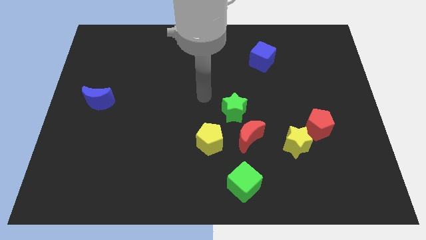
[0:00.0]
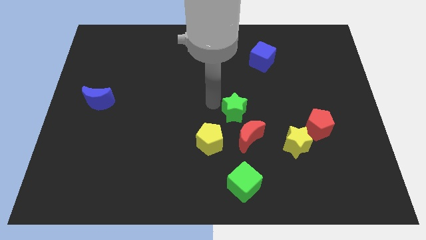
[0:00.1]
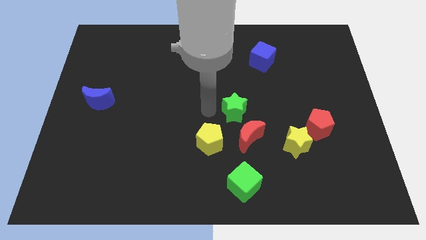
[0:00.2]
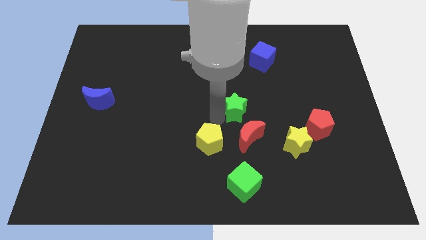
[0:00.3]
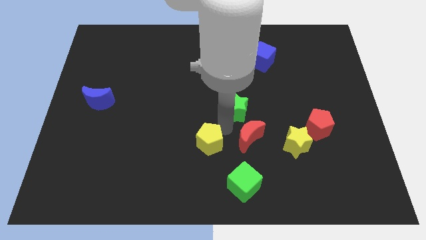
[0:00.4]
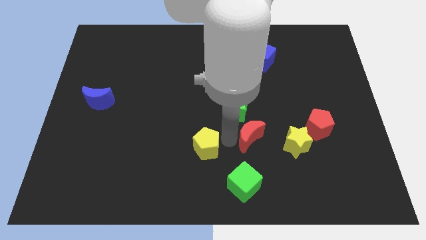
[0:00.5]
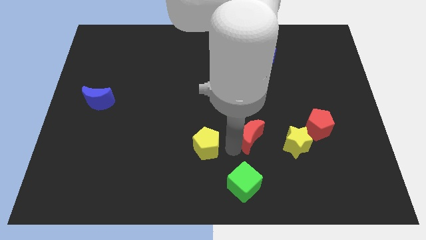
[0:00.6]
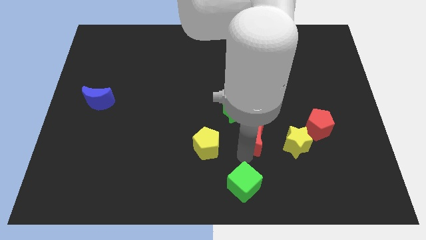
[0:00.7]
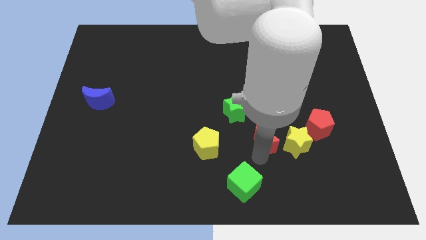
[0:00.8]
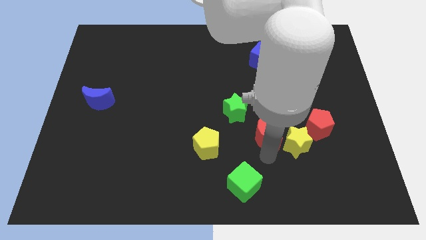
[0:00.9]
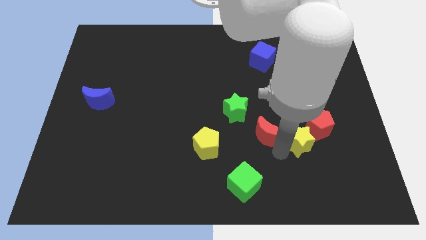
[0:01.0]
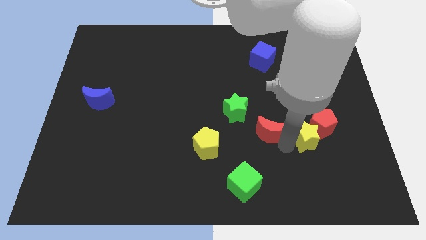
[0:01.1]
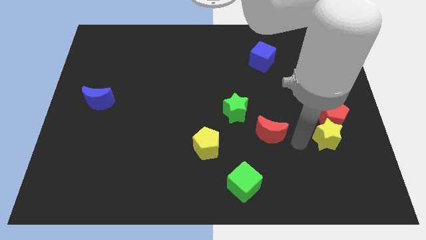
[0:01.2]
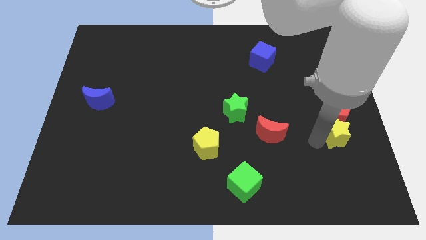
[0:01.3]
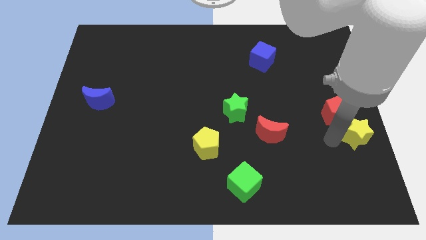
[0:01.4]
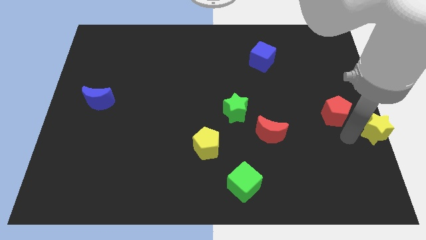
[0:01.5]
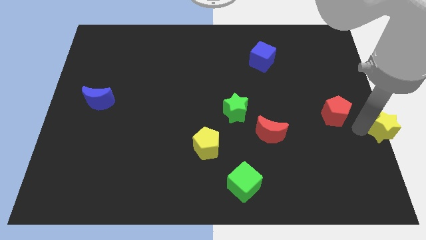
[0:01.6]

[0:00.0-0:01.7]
pull the red pentagon apart from the yellow star

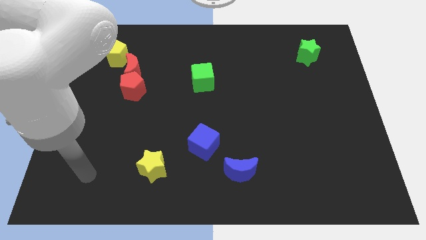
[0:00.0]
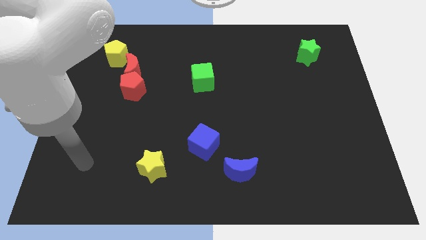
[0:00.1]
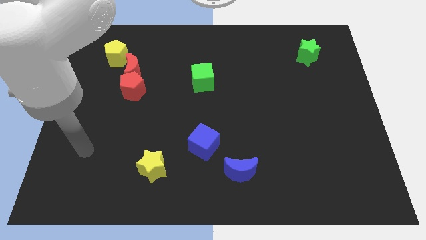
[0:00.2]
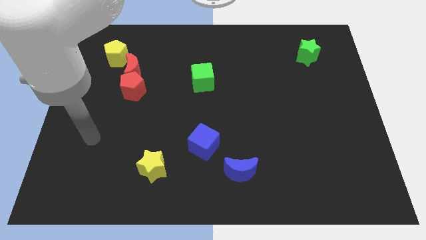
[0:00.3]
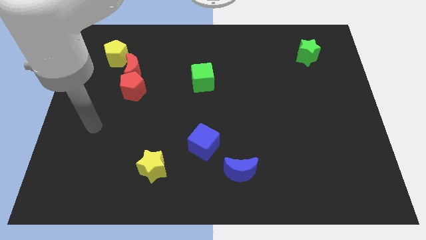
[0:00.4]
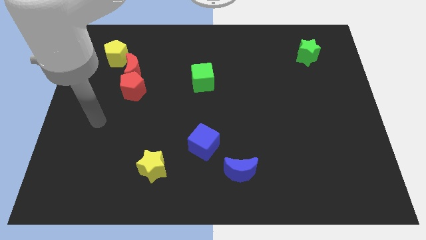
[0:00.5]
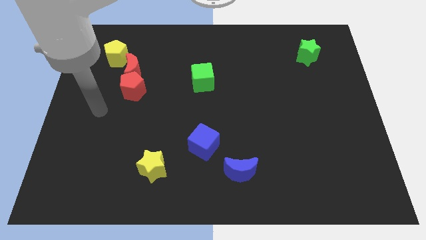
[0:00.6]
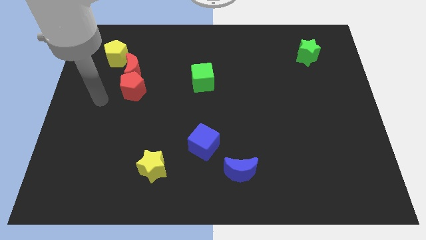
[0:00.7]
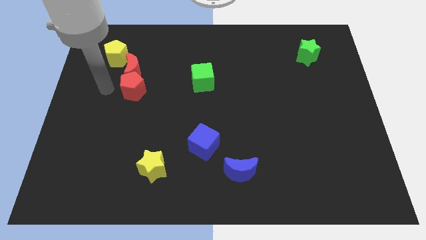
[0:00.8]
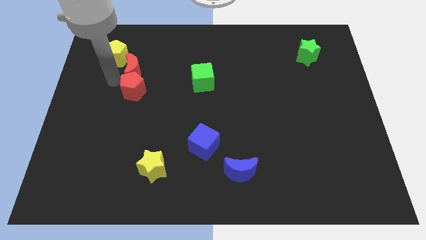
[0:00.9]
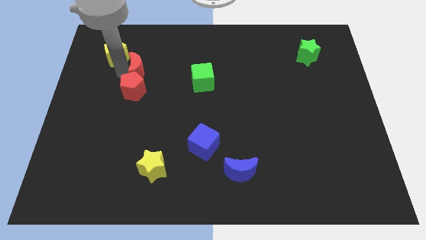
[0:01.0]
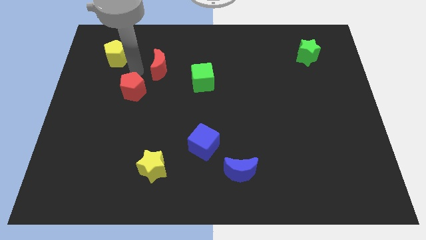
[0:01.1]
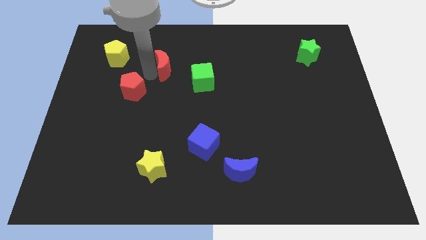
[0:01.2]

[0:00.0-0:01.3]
pull the red pentagon apart from the red moon

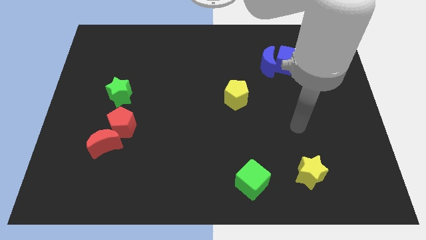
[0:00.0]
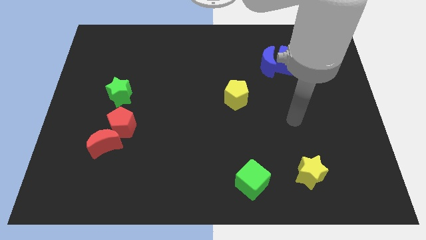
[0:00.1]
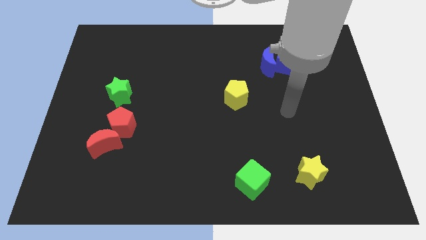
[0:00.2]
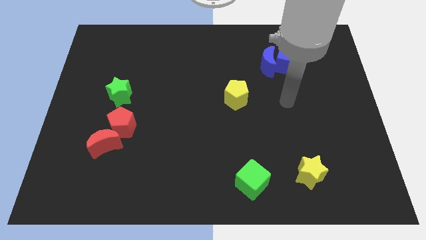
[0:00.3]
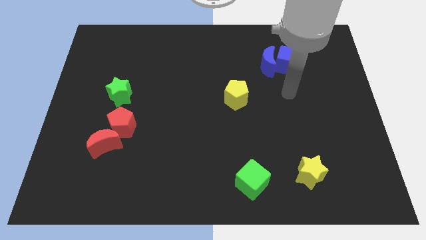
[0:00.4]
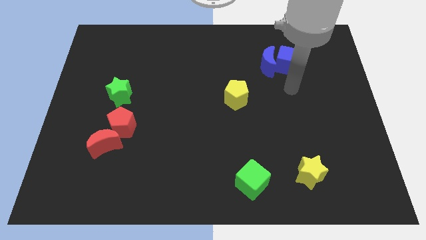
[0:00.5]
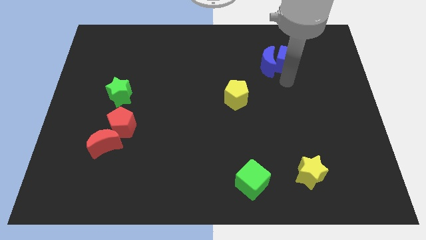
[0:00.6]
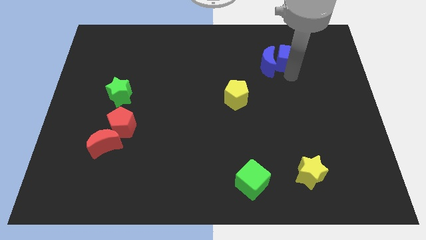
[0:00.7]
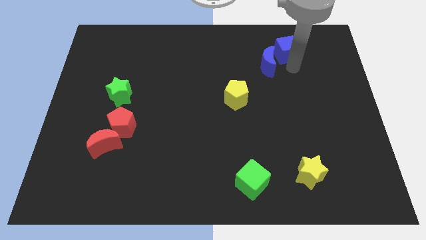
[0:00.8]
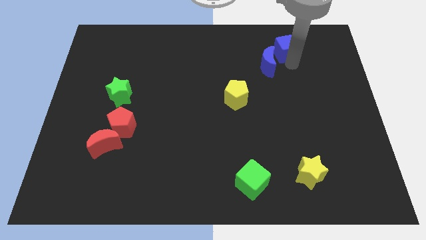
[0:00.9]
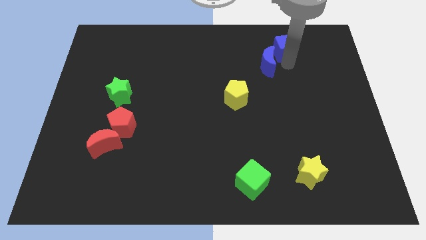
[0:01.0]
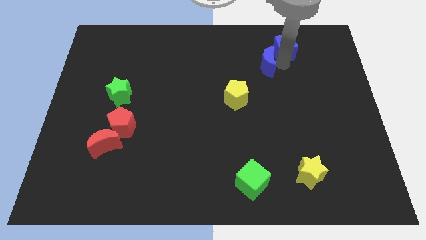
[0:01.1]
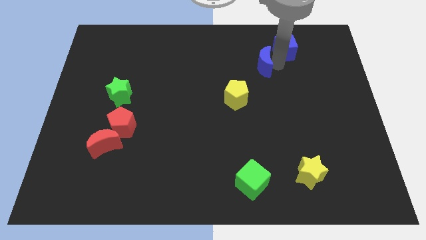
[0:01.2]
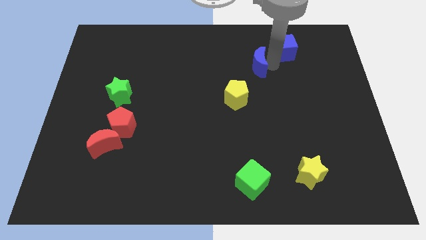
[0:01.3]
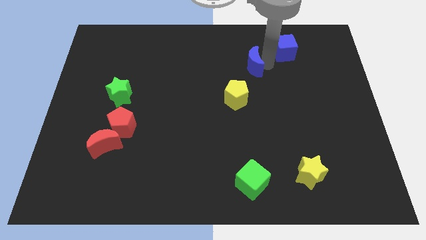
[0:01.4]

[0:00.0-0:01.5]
pull the blue moon apart from the blue cube

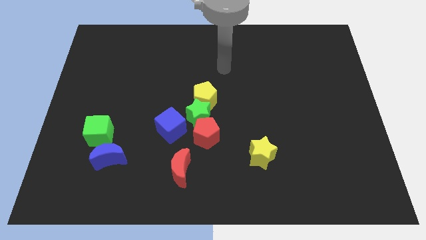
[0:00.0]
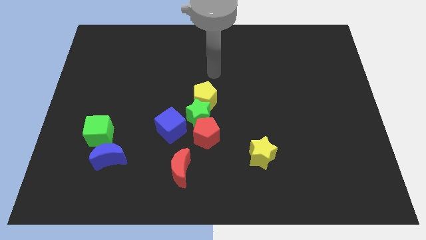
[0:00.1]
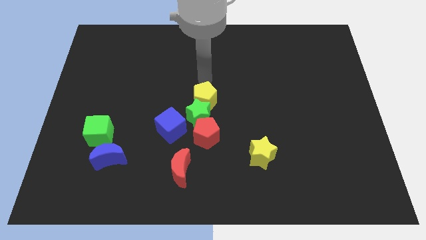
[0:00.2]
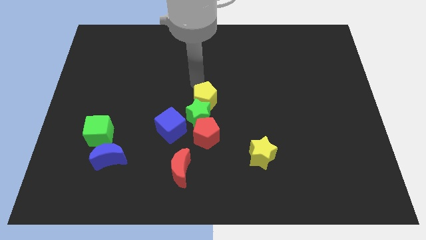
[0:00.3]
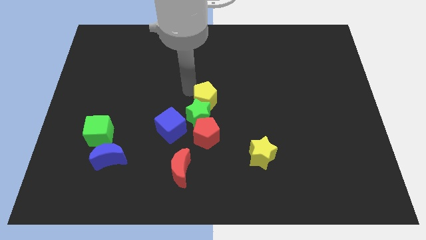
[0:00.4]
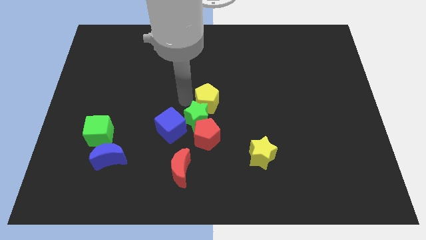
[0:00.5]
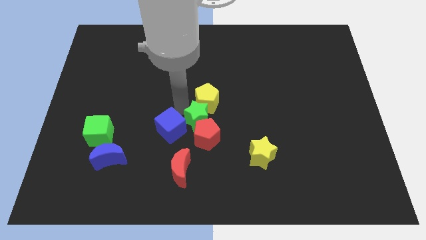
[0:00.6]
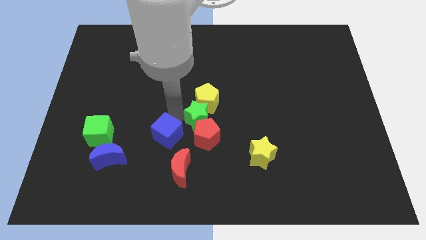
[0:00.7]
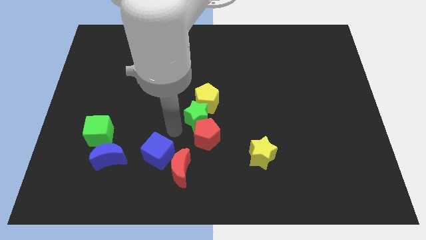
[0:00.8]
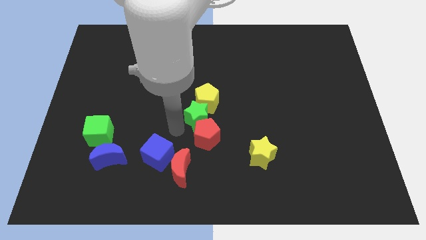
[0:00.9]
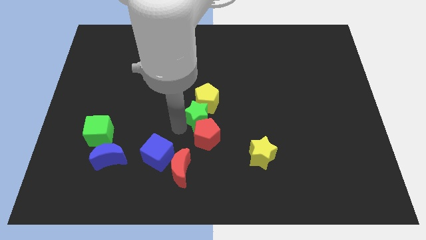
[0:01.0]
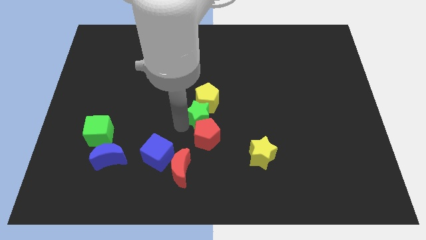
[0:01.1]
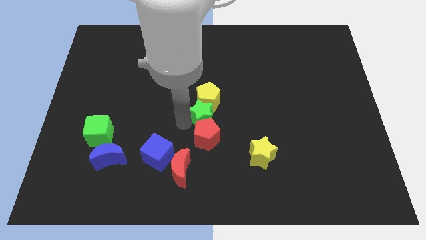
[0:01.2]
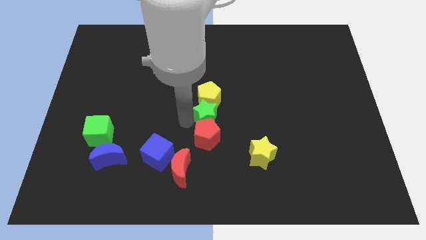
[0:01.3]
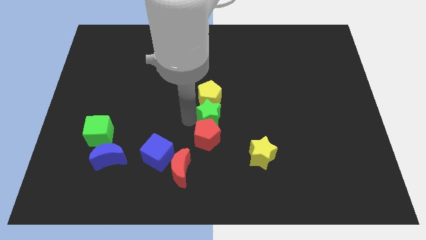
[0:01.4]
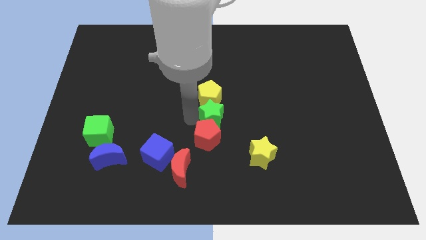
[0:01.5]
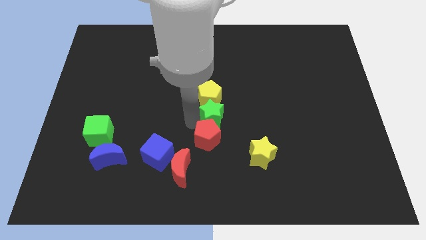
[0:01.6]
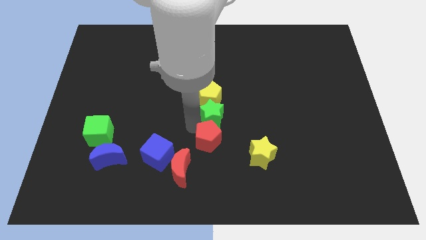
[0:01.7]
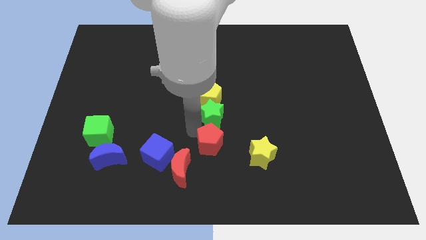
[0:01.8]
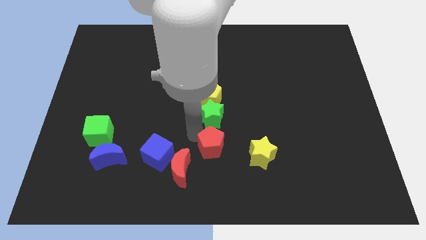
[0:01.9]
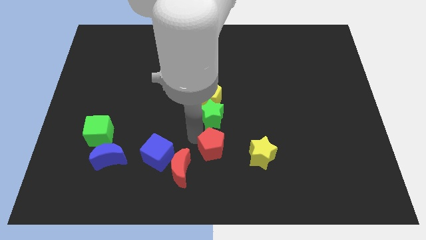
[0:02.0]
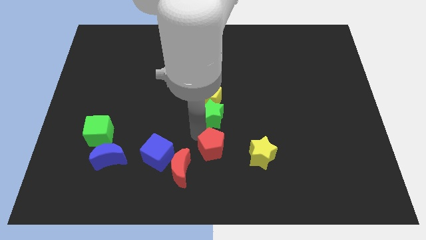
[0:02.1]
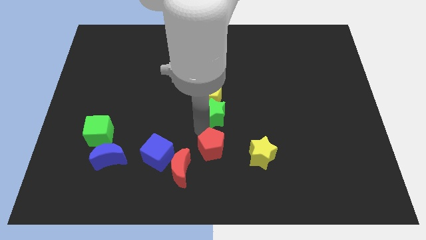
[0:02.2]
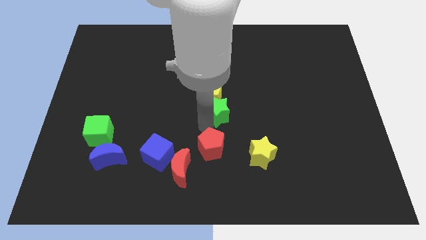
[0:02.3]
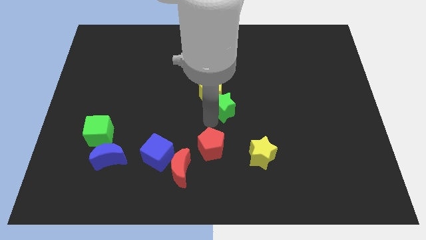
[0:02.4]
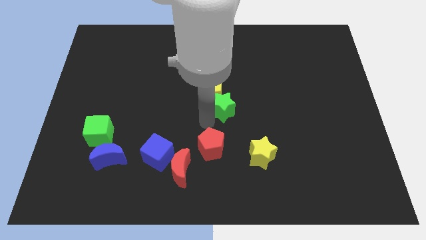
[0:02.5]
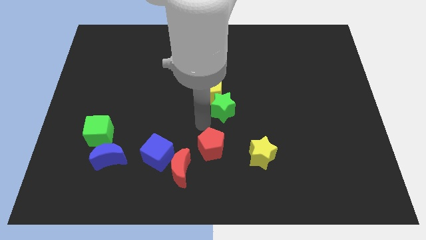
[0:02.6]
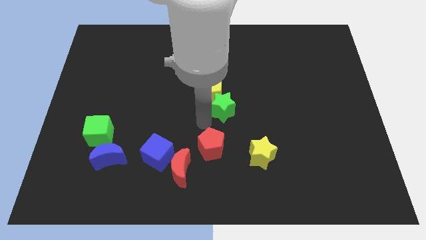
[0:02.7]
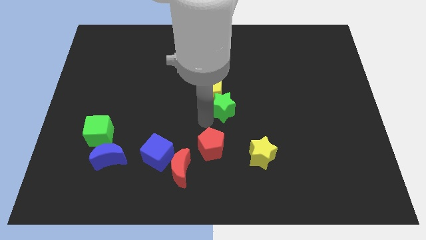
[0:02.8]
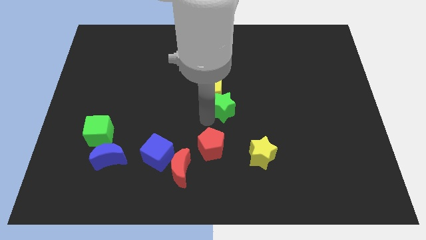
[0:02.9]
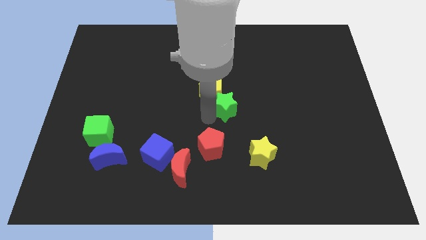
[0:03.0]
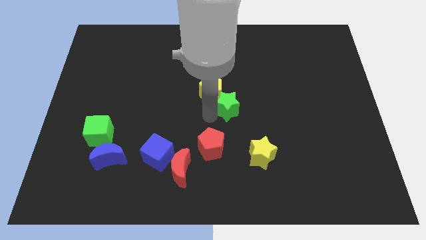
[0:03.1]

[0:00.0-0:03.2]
separate the green star from the red pentagon, yellow pentagon, and blue cube

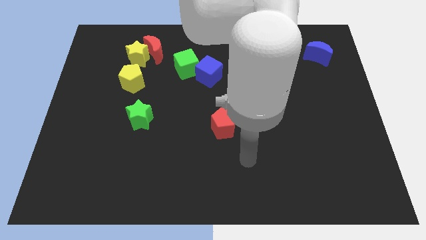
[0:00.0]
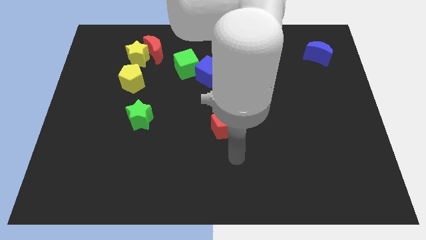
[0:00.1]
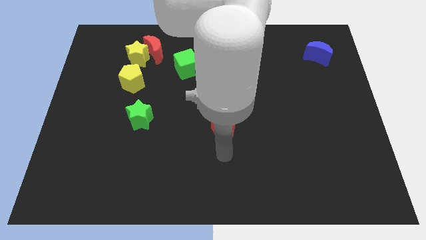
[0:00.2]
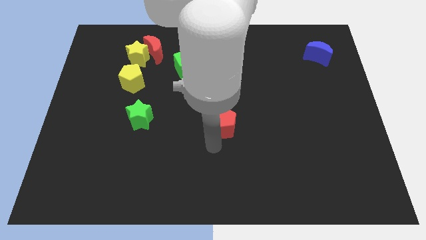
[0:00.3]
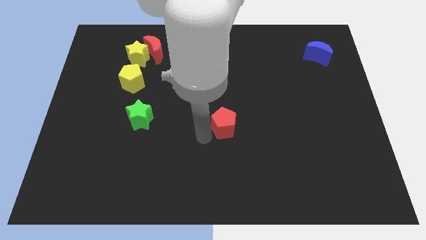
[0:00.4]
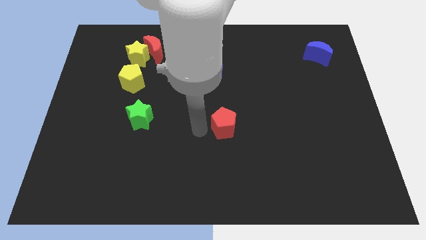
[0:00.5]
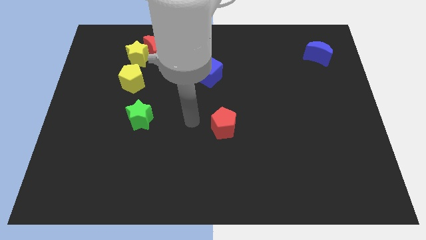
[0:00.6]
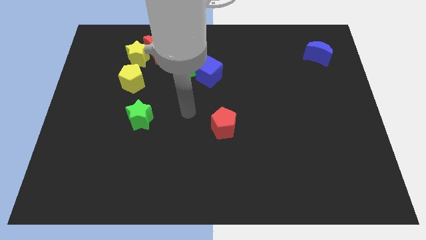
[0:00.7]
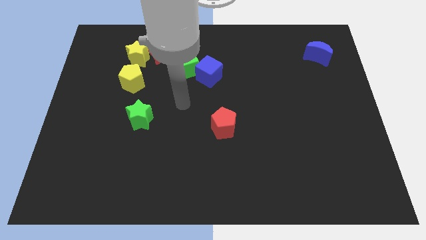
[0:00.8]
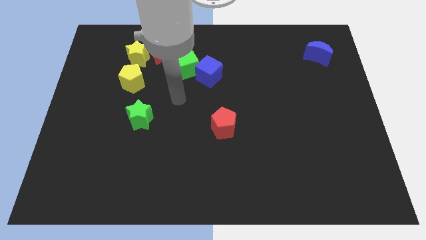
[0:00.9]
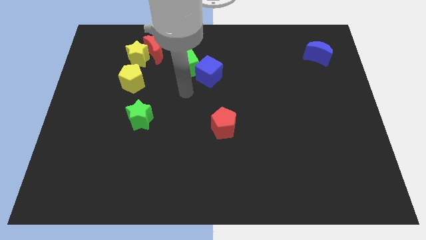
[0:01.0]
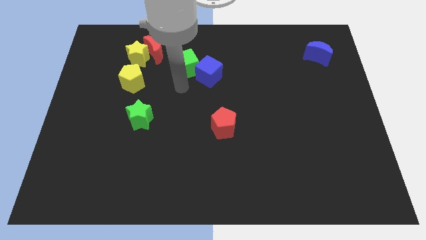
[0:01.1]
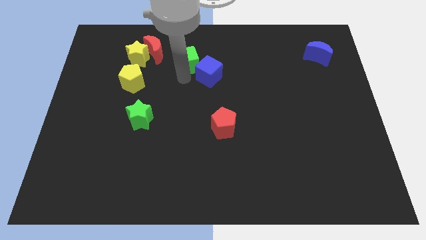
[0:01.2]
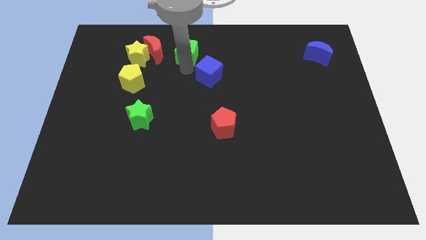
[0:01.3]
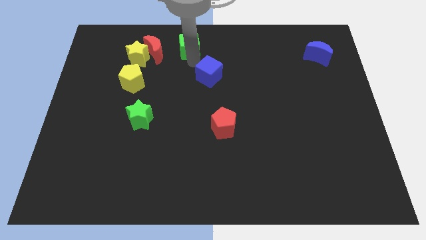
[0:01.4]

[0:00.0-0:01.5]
move the blue cube away from the green cube
